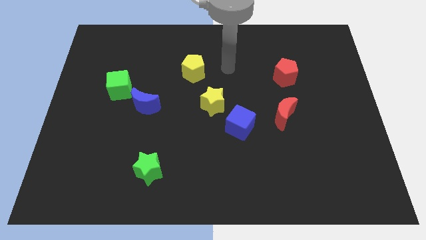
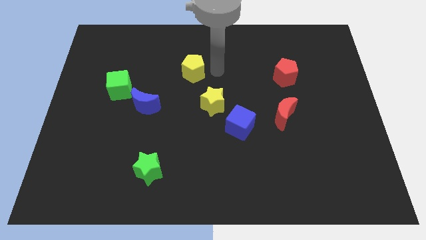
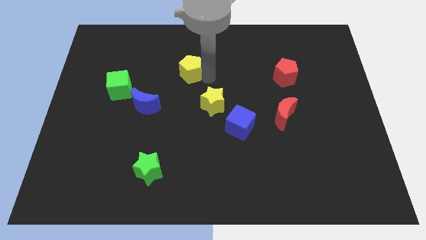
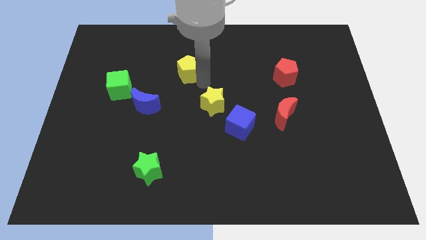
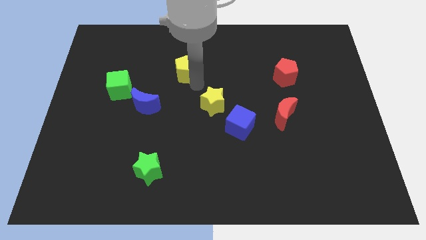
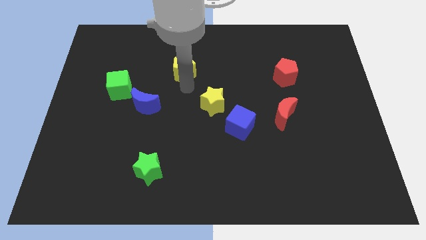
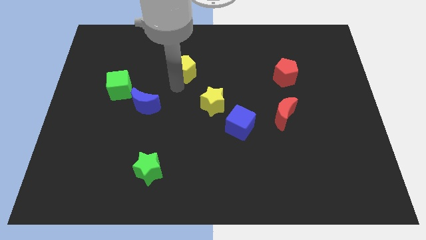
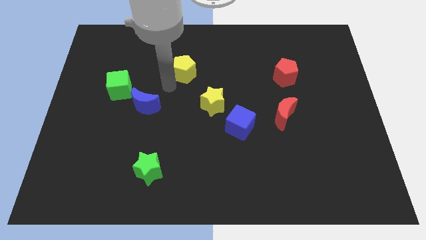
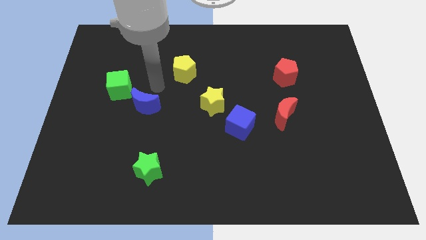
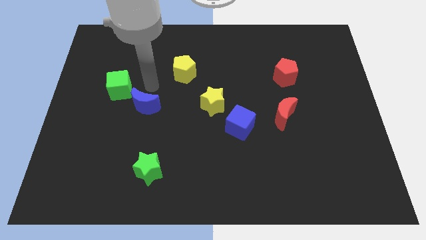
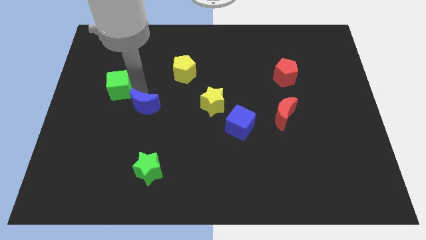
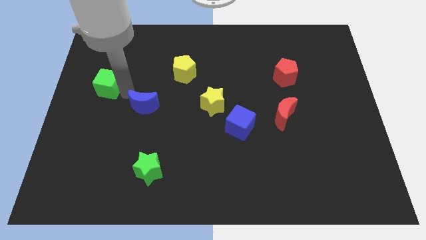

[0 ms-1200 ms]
move the blue moon away from the green cube

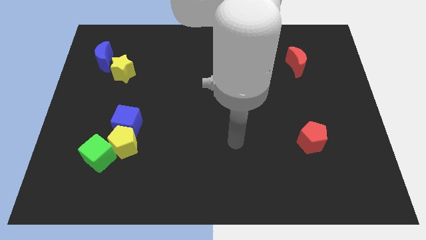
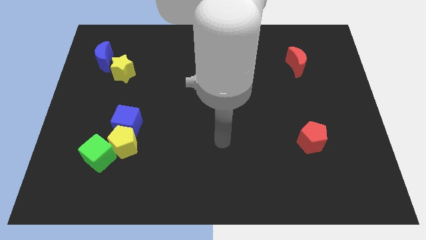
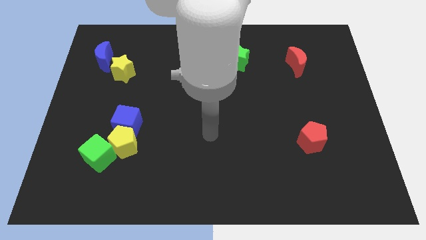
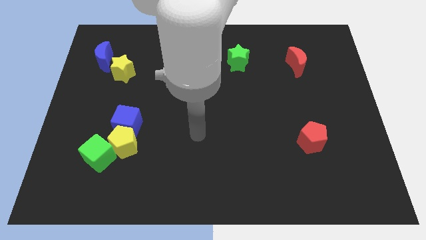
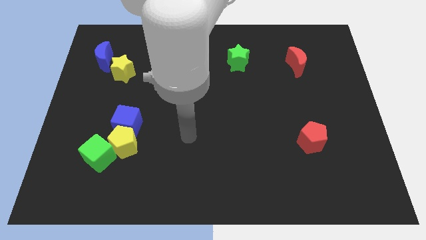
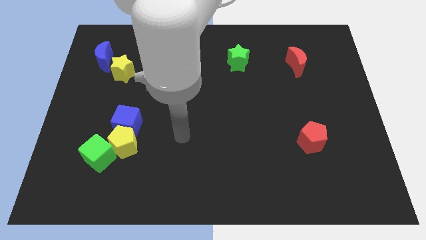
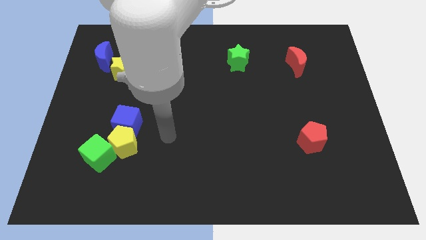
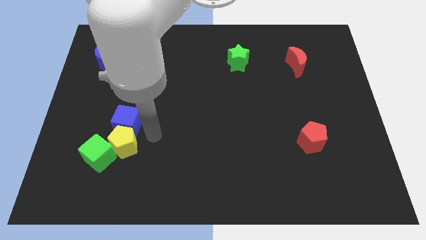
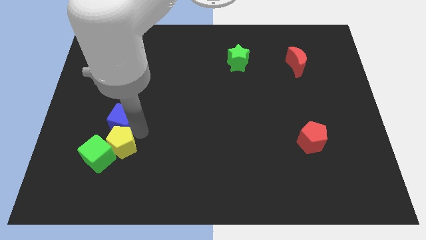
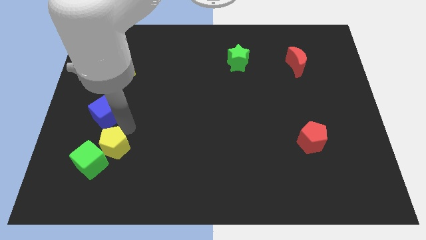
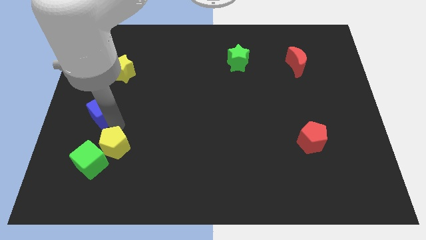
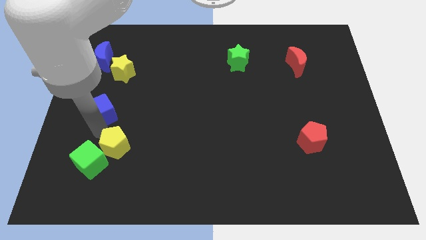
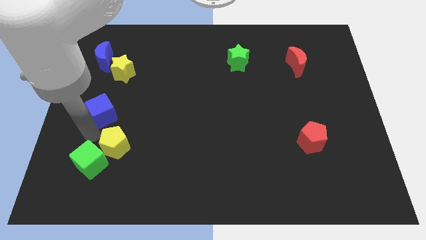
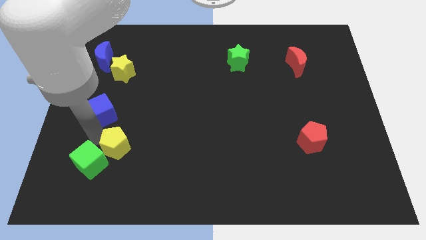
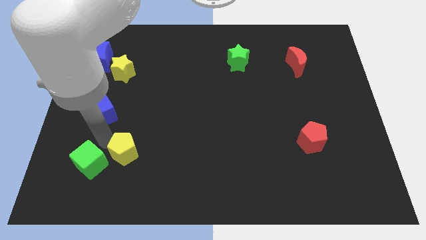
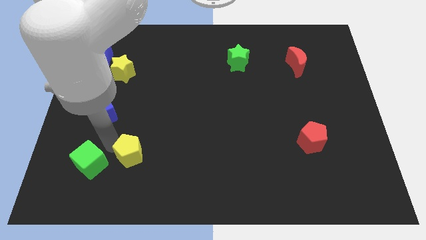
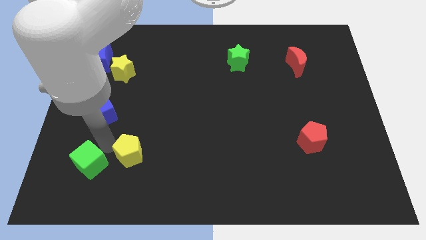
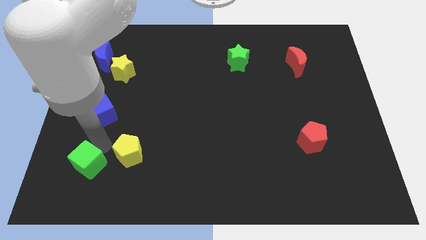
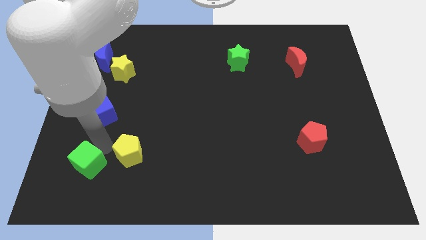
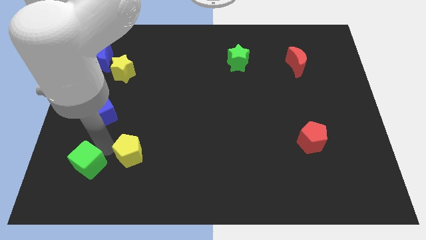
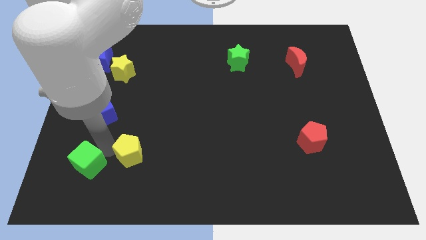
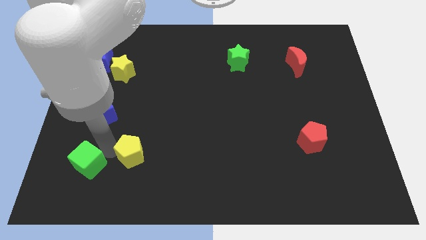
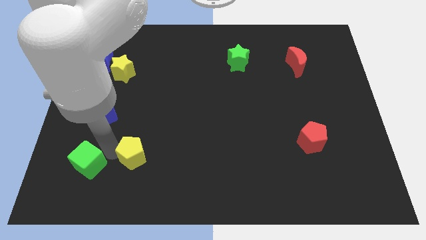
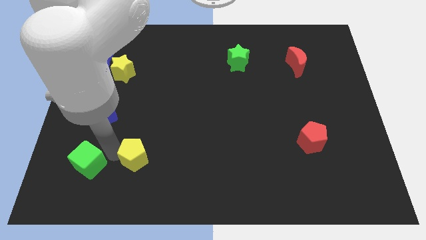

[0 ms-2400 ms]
pull the yellow pentagon apart from the blue cube and green cube

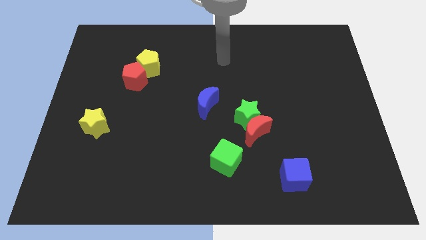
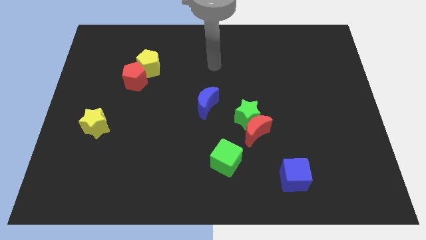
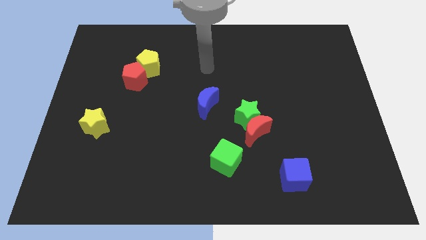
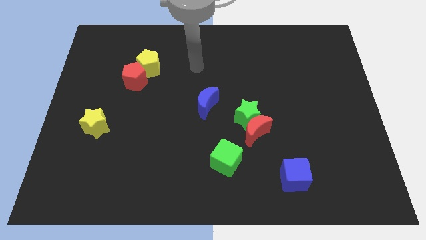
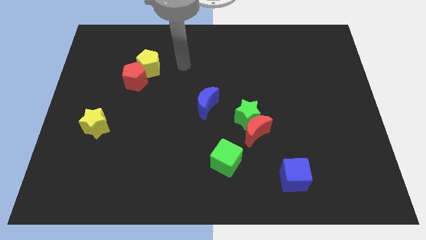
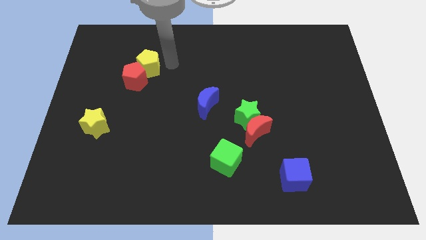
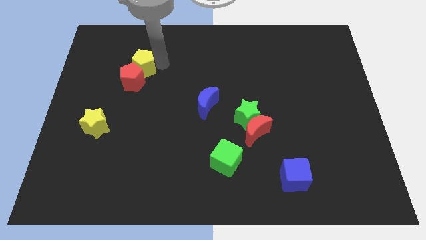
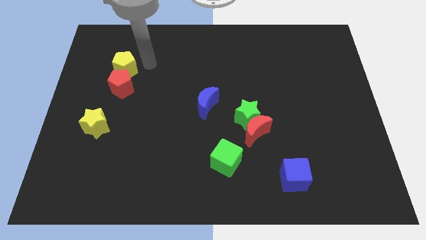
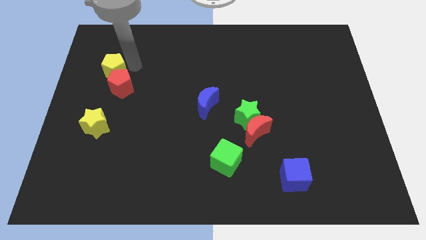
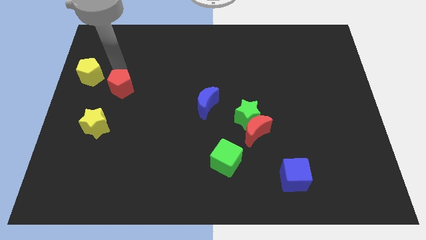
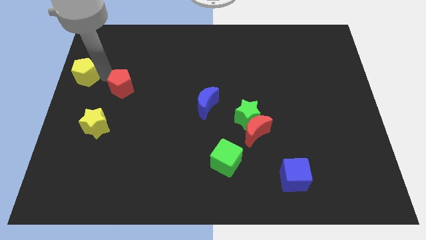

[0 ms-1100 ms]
separate the red pentagon from the yellow pentagon

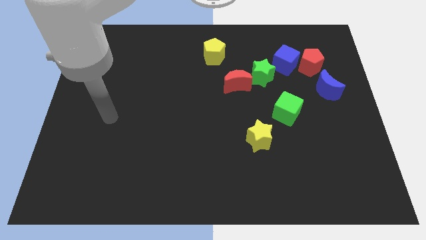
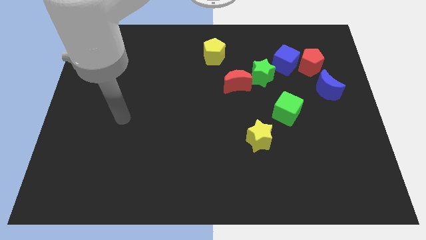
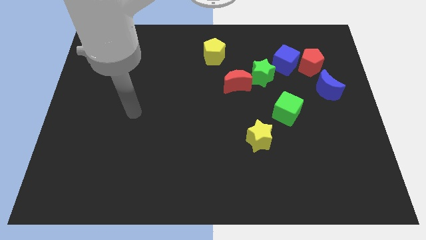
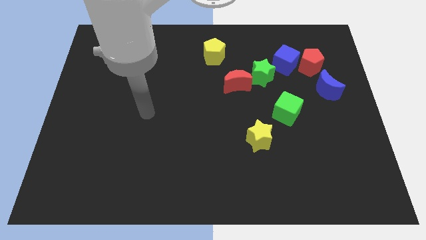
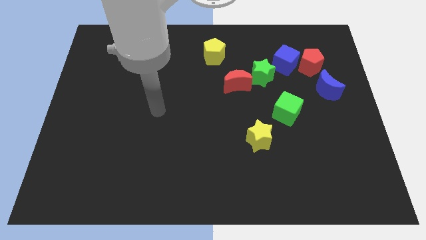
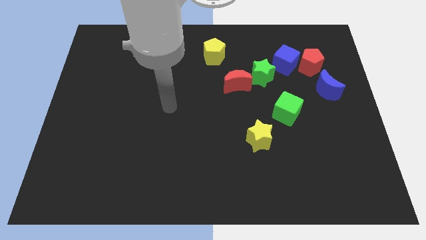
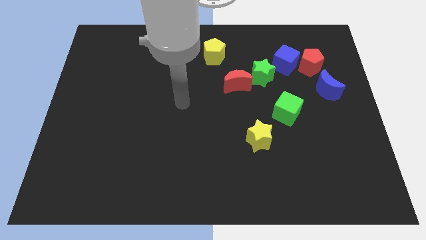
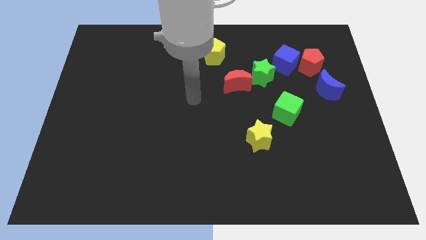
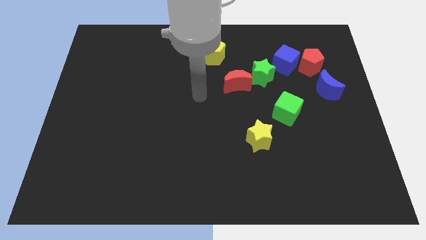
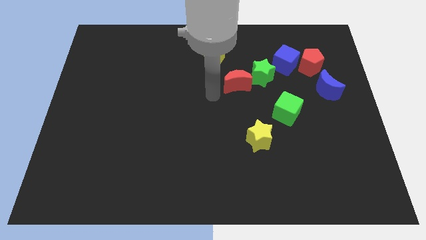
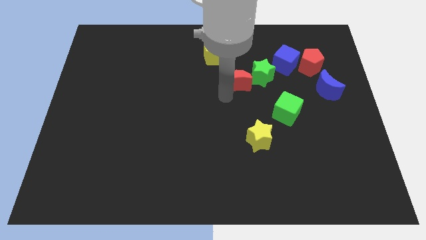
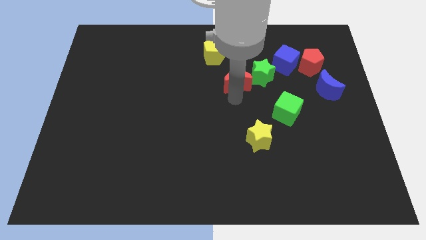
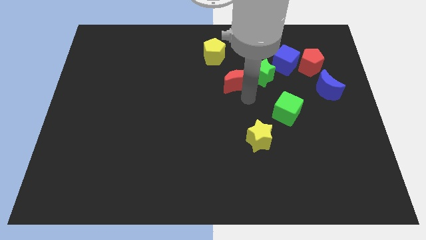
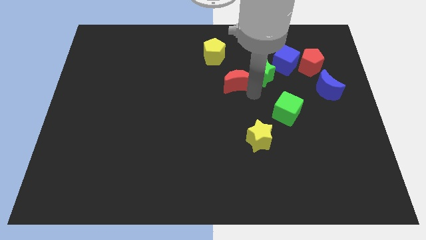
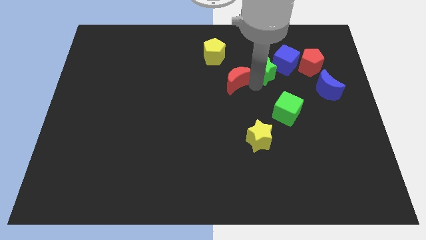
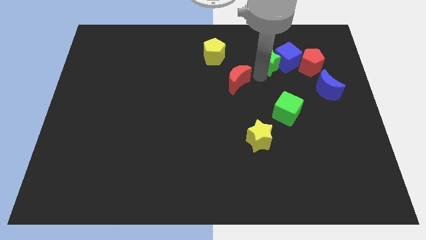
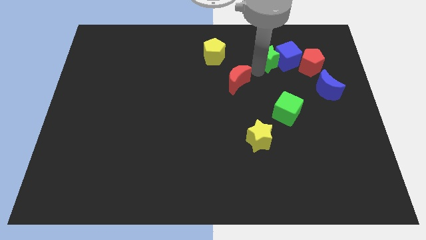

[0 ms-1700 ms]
separate the red moon from the green star

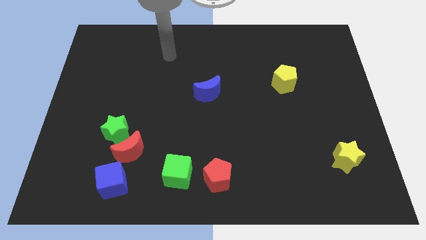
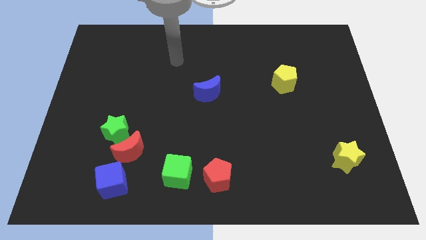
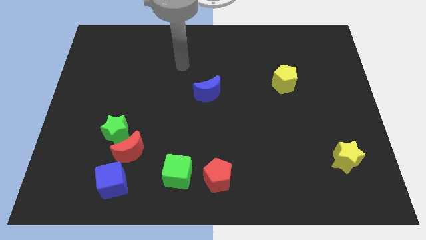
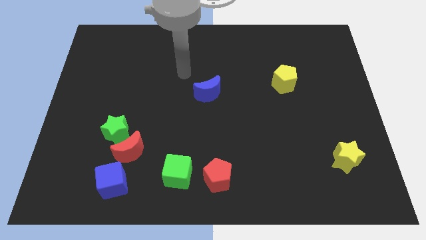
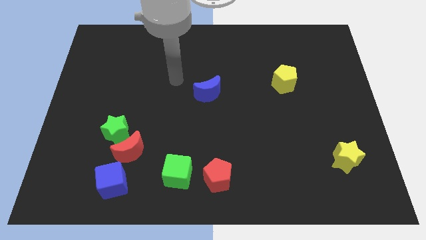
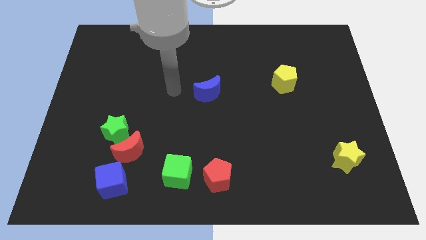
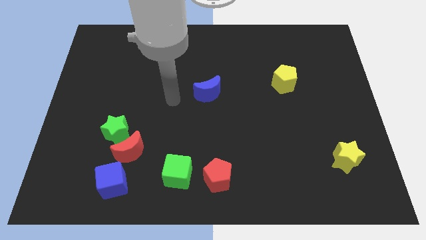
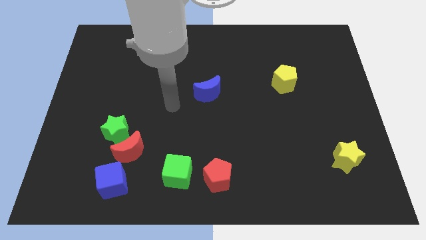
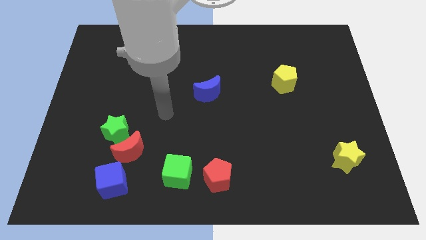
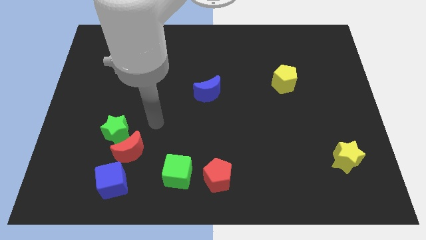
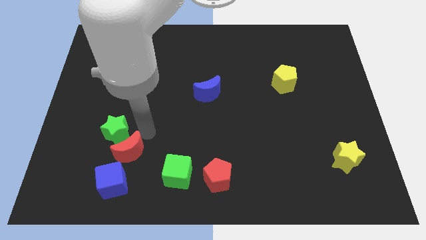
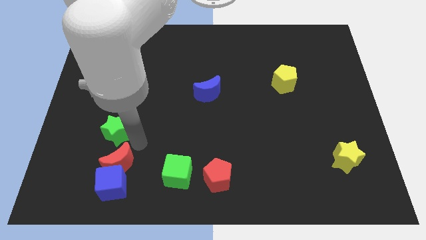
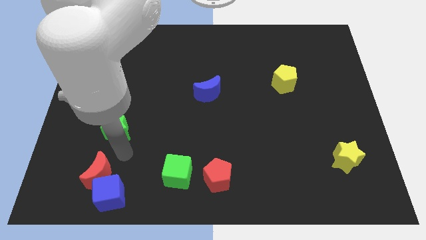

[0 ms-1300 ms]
move the green star away from the red moon

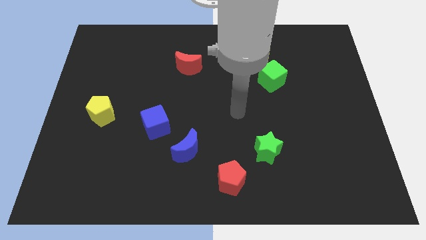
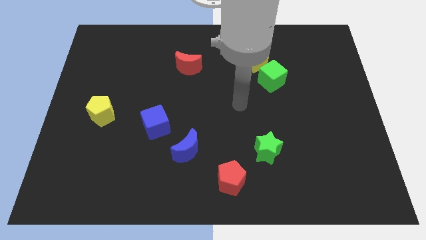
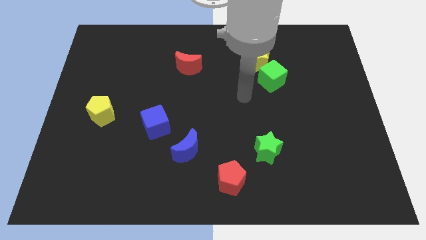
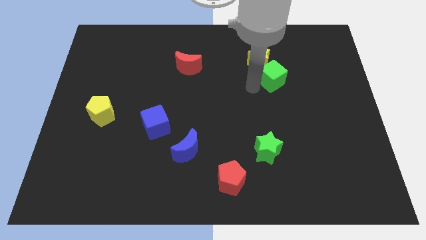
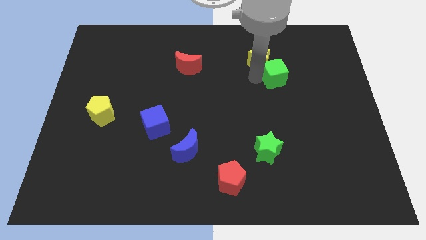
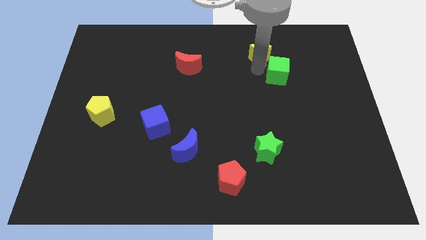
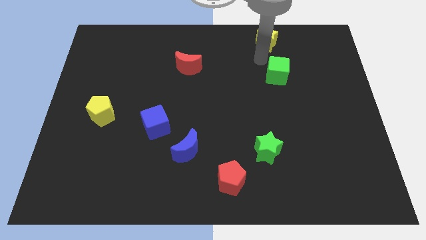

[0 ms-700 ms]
pull the green cube apart from the yellow star

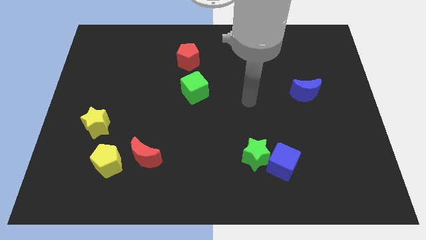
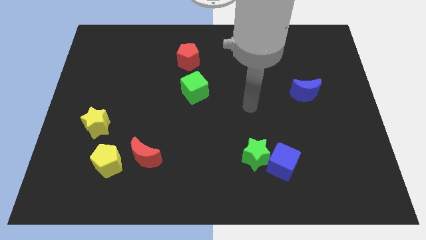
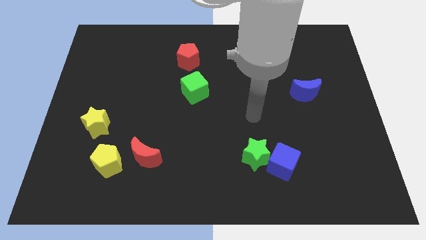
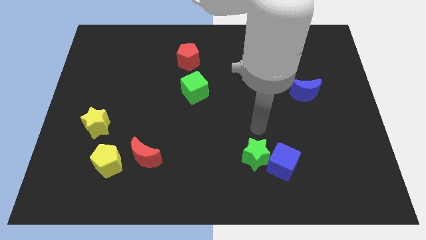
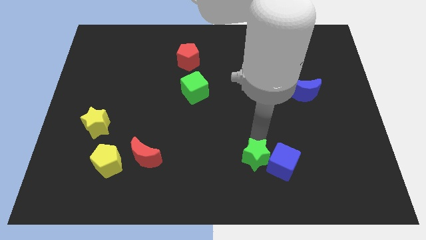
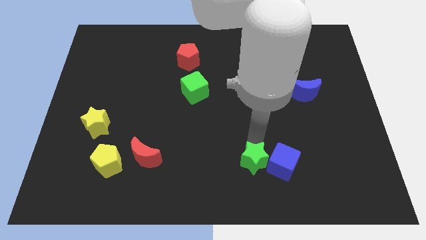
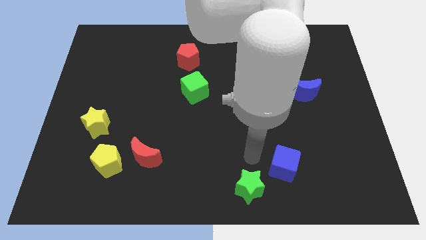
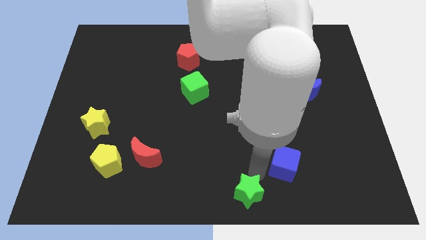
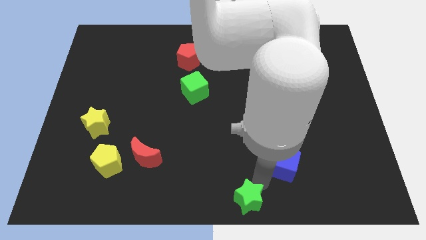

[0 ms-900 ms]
separate the blue cube from the green star

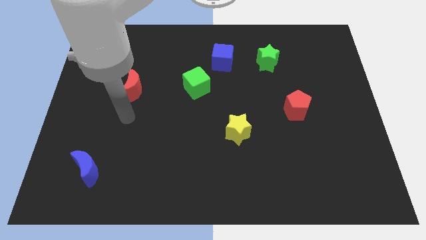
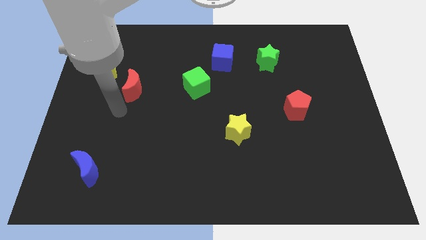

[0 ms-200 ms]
move the red moon away from the yellow pentagon
